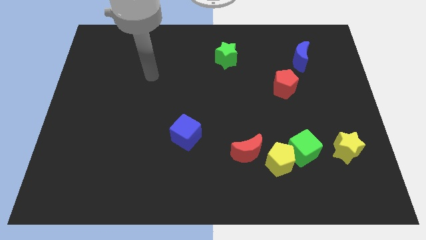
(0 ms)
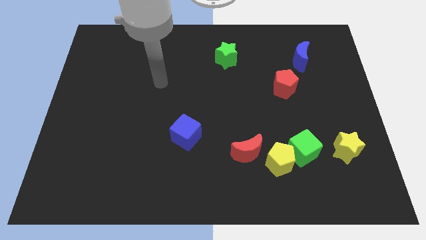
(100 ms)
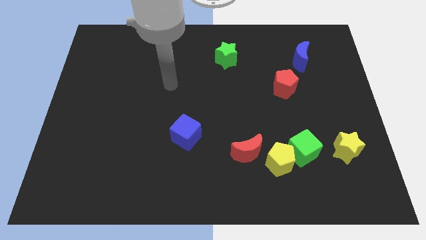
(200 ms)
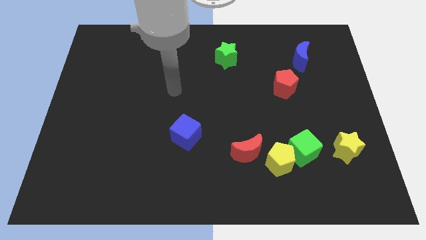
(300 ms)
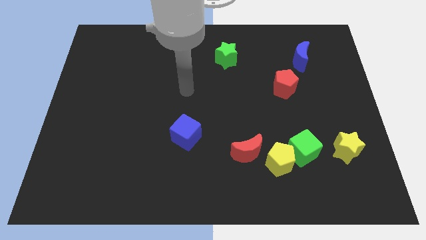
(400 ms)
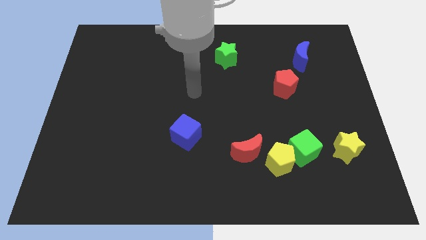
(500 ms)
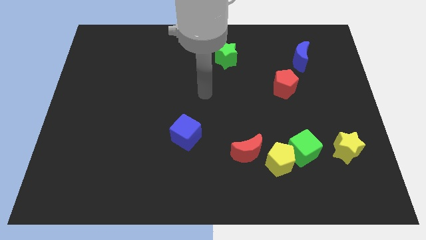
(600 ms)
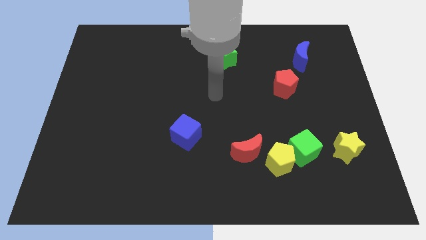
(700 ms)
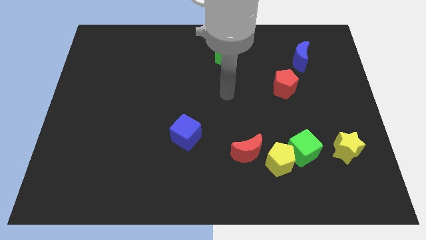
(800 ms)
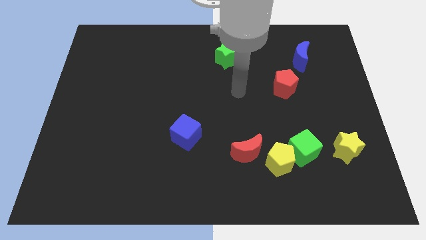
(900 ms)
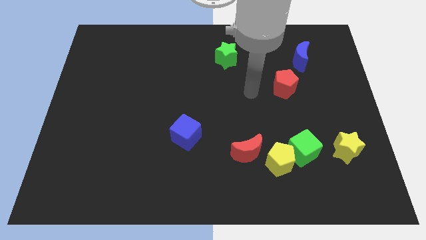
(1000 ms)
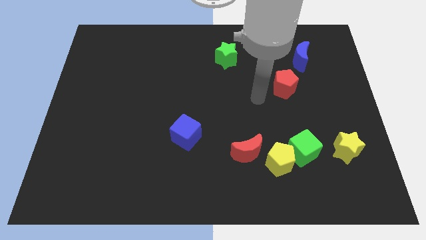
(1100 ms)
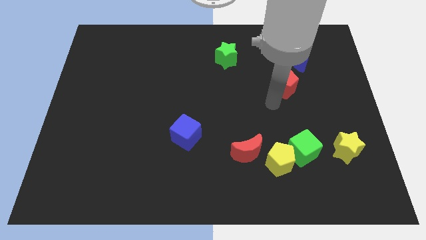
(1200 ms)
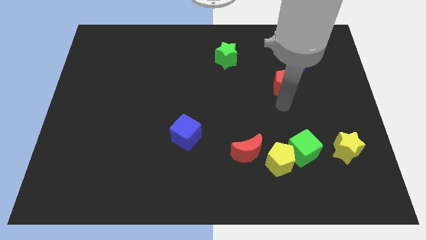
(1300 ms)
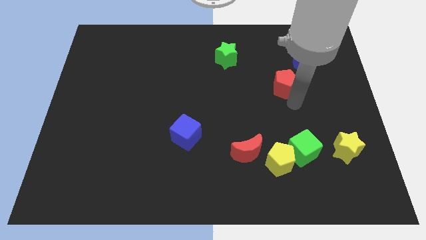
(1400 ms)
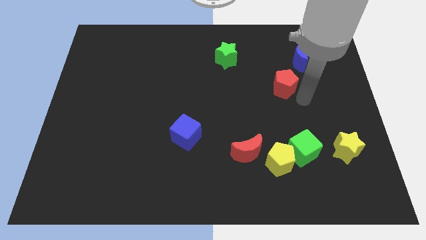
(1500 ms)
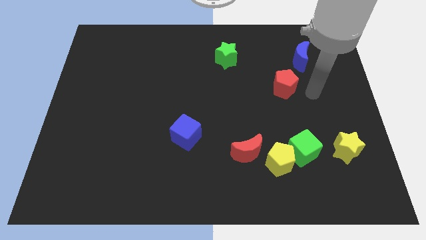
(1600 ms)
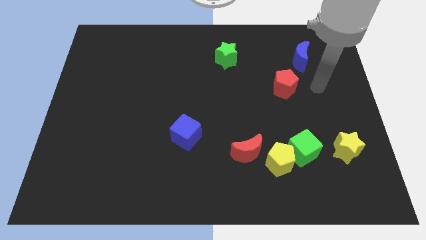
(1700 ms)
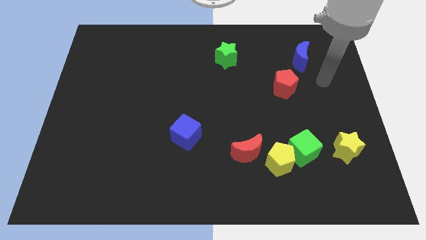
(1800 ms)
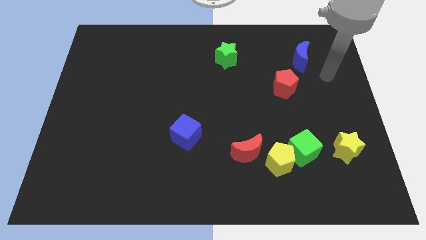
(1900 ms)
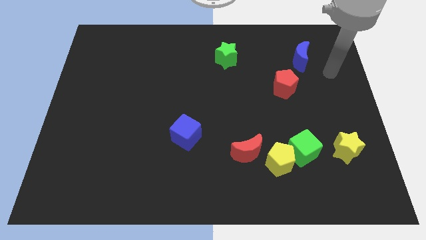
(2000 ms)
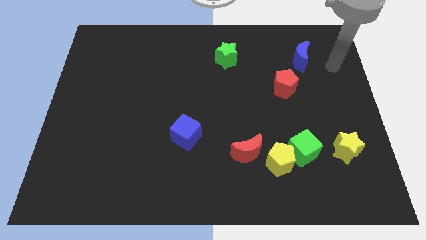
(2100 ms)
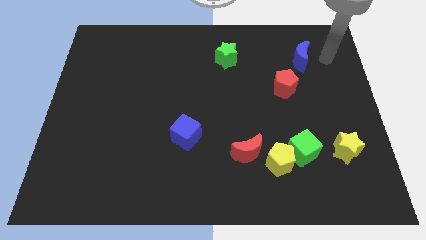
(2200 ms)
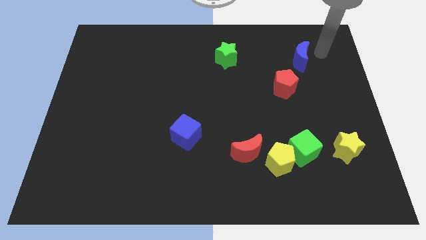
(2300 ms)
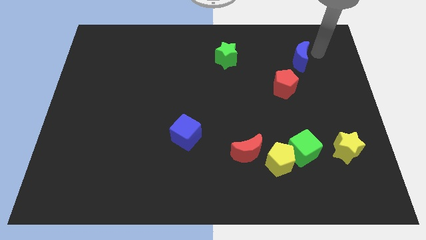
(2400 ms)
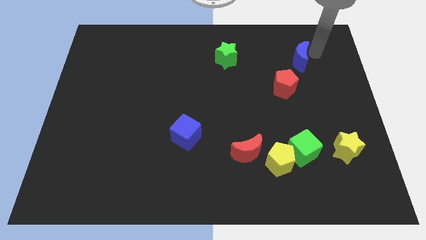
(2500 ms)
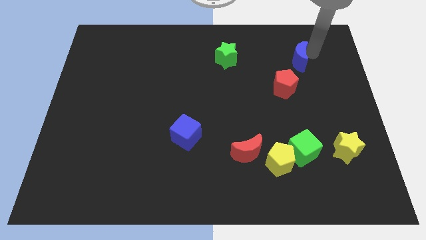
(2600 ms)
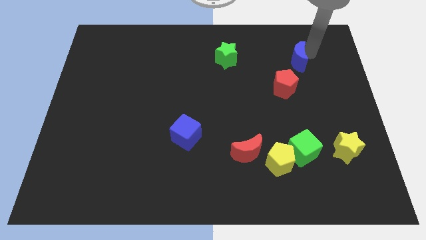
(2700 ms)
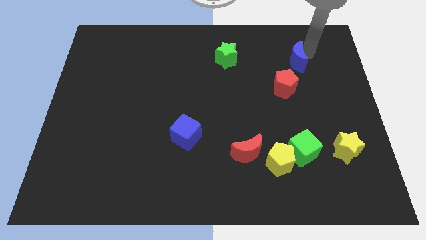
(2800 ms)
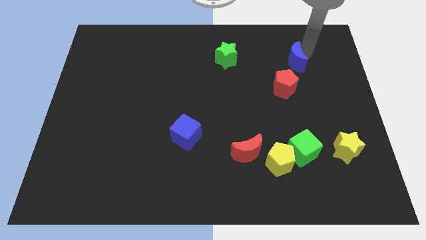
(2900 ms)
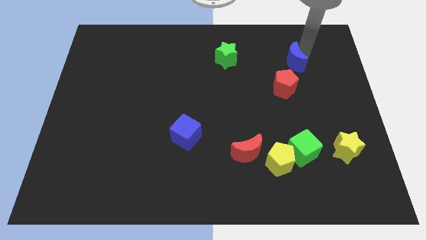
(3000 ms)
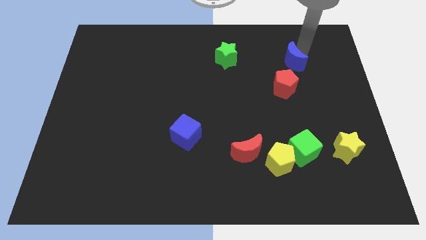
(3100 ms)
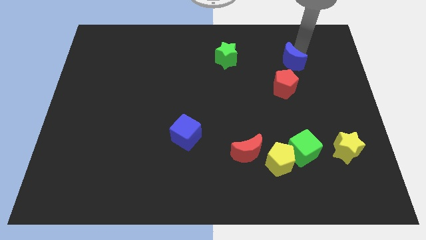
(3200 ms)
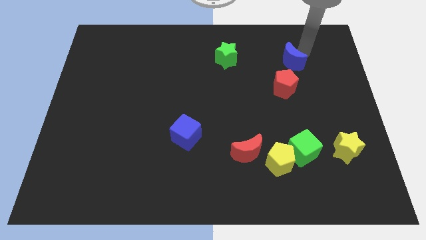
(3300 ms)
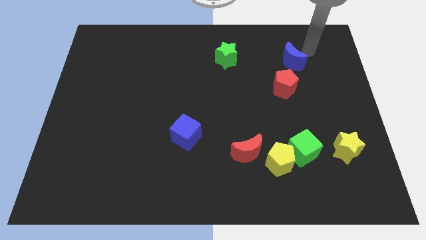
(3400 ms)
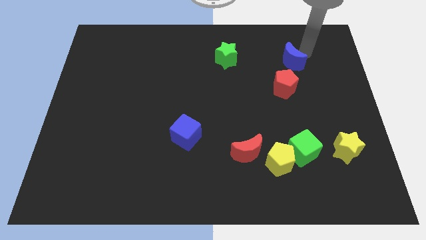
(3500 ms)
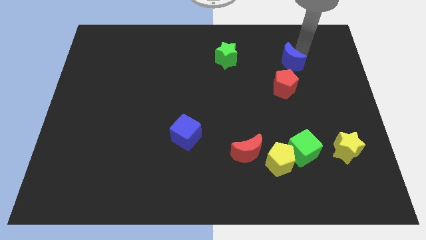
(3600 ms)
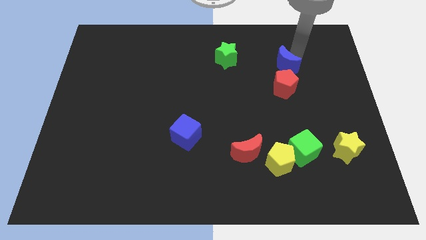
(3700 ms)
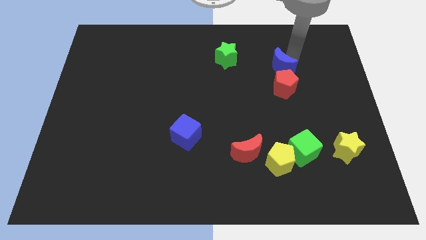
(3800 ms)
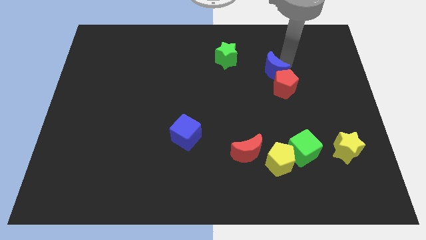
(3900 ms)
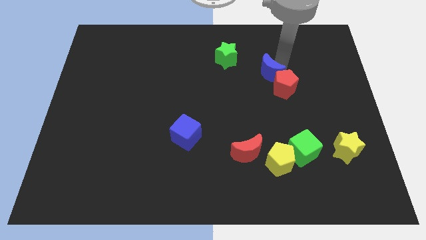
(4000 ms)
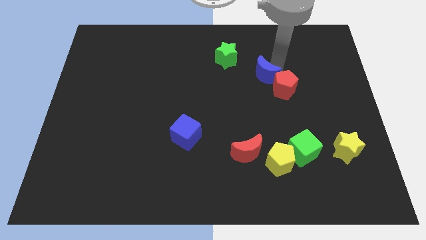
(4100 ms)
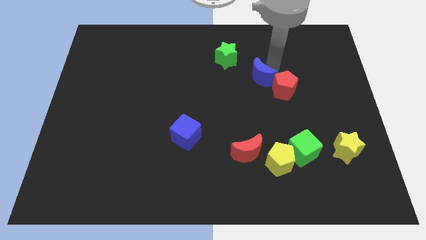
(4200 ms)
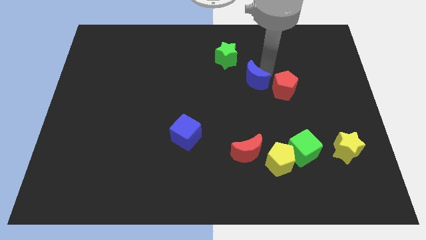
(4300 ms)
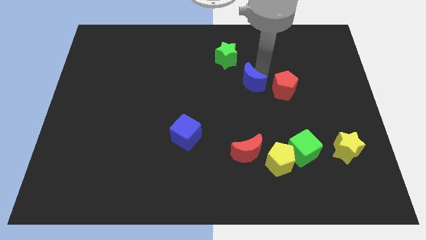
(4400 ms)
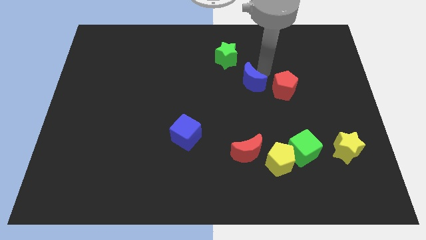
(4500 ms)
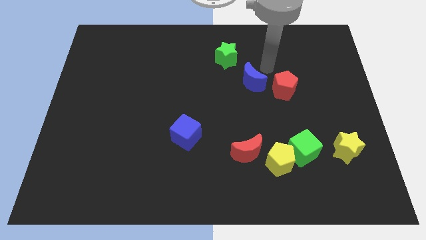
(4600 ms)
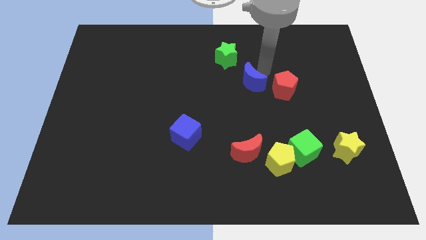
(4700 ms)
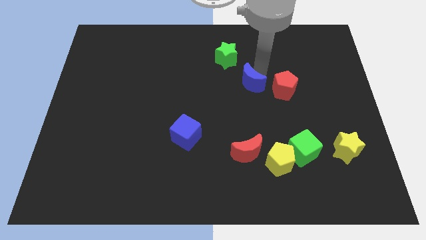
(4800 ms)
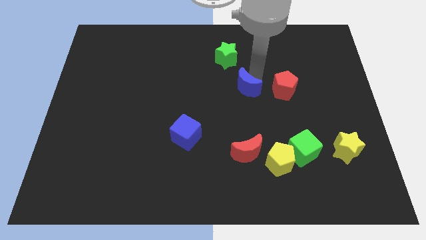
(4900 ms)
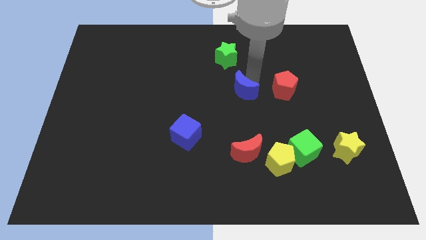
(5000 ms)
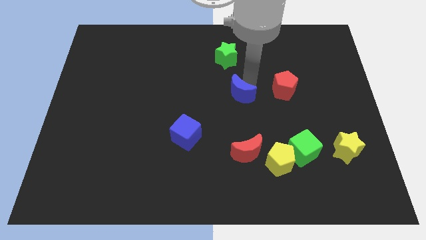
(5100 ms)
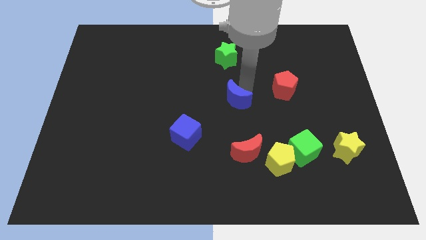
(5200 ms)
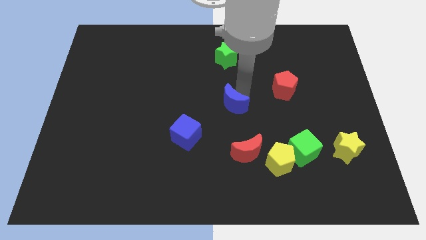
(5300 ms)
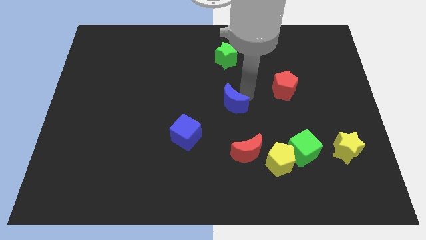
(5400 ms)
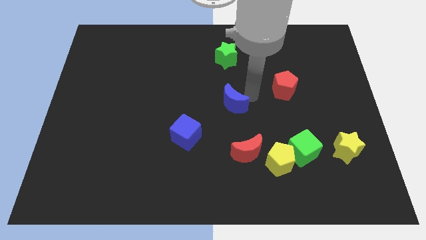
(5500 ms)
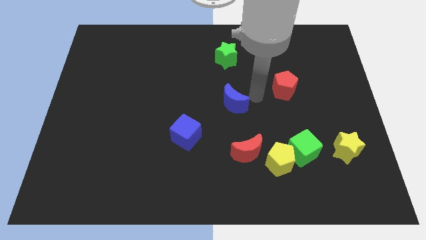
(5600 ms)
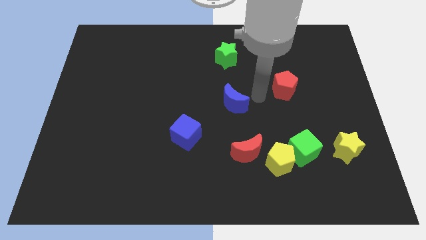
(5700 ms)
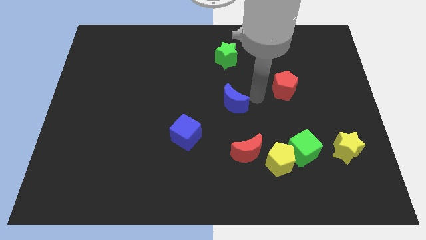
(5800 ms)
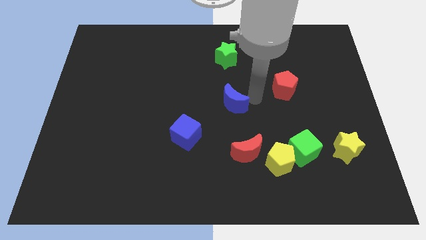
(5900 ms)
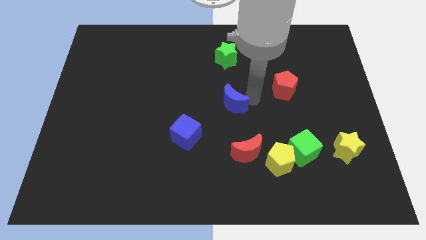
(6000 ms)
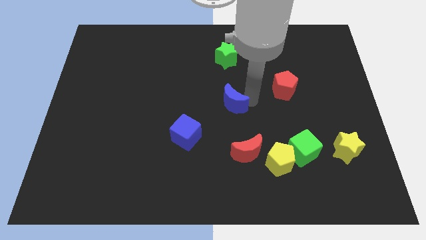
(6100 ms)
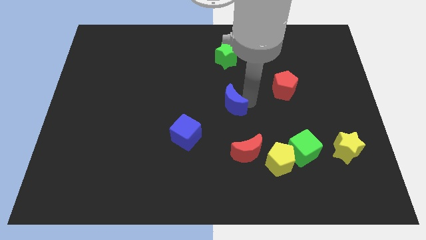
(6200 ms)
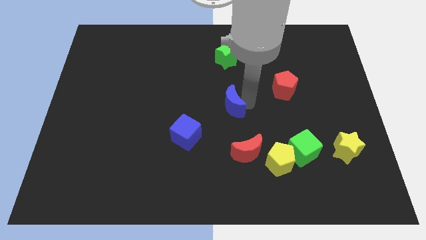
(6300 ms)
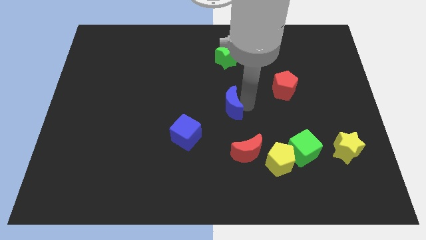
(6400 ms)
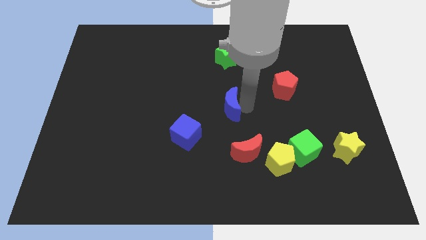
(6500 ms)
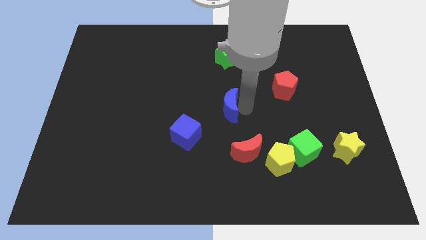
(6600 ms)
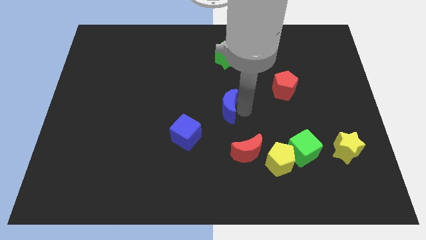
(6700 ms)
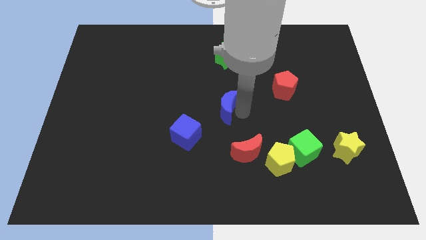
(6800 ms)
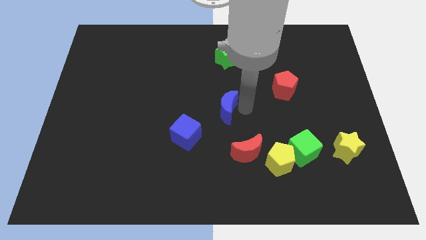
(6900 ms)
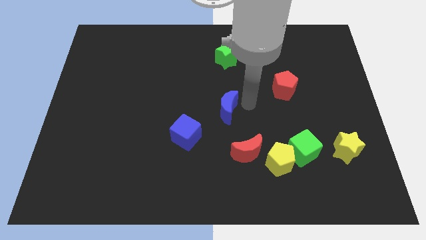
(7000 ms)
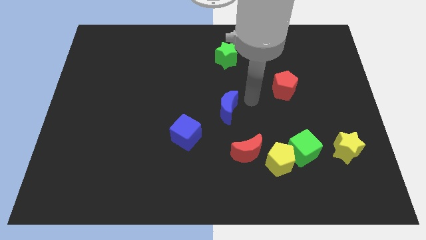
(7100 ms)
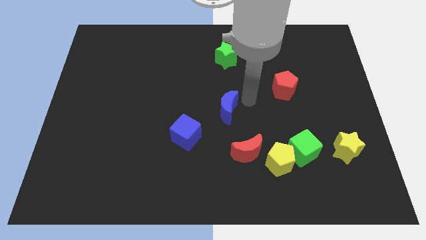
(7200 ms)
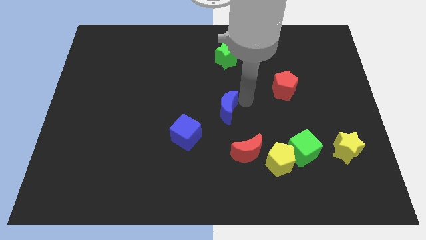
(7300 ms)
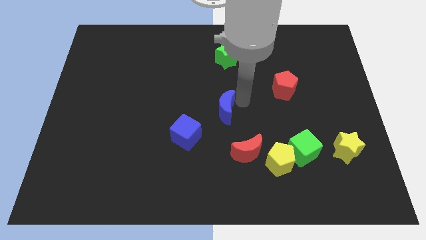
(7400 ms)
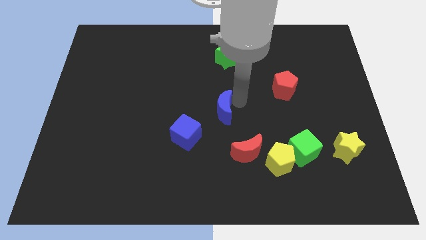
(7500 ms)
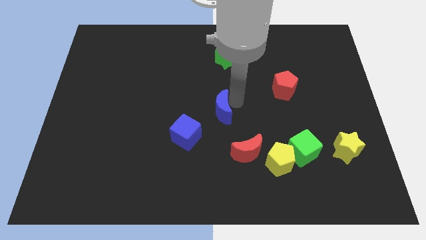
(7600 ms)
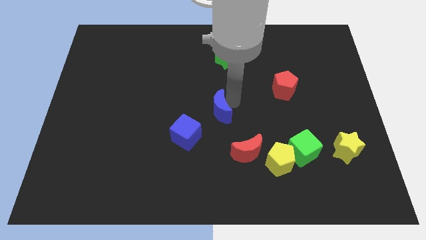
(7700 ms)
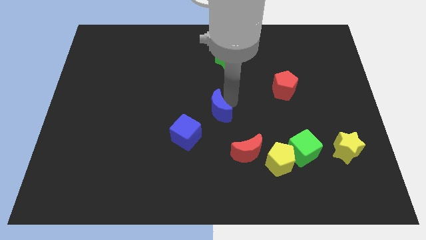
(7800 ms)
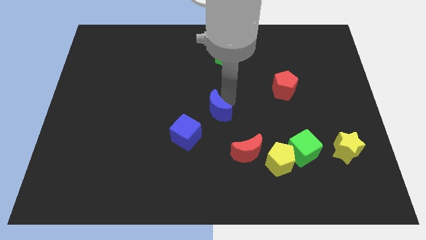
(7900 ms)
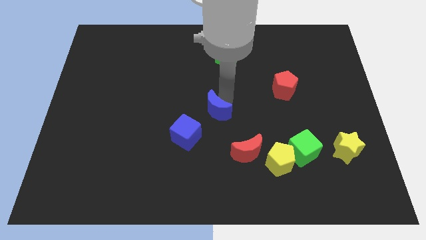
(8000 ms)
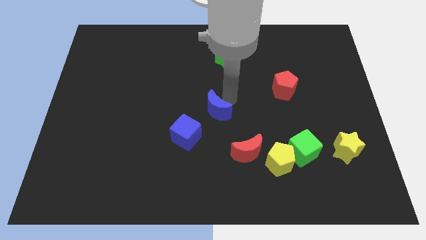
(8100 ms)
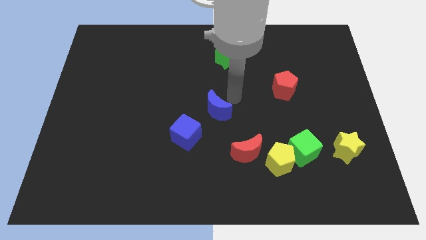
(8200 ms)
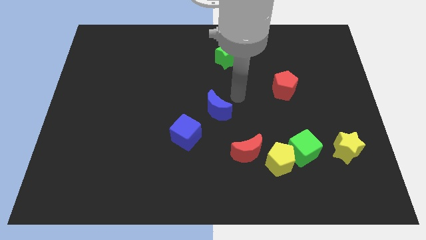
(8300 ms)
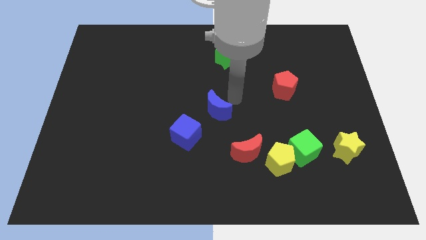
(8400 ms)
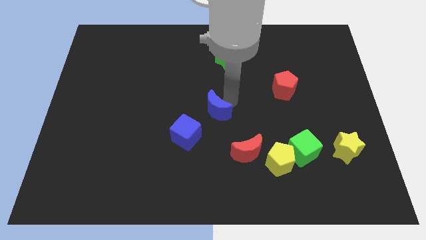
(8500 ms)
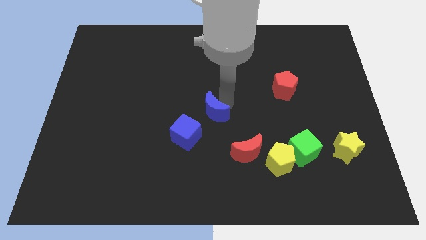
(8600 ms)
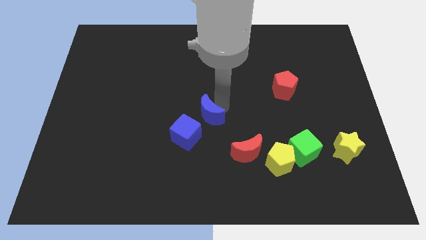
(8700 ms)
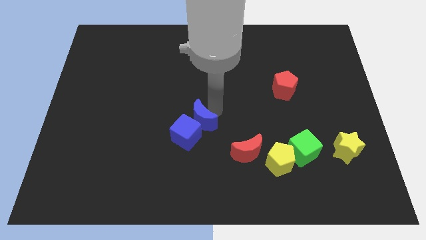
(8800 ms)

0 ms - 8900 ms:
slide the blue moon next to the blue cube
